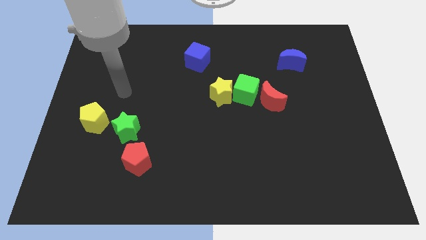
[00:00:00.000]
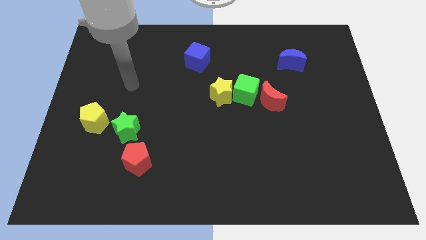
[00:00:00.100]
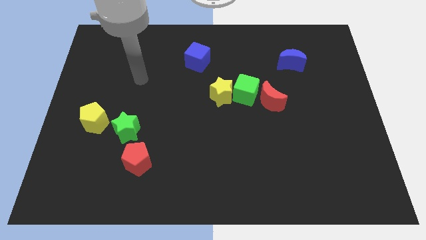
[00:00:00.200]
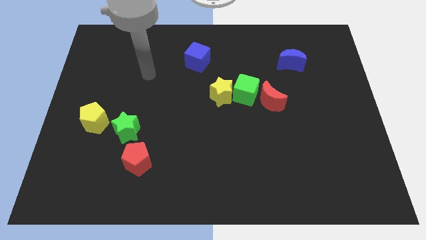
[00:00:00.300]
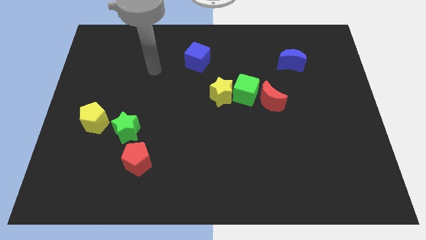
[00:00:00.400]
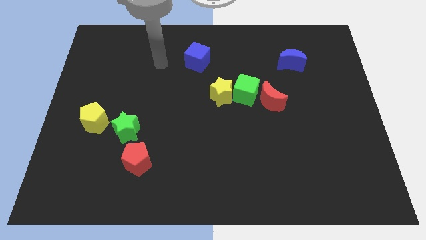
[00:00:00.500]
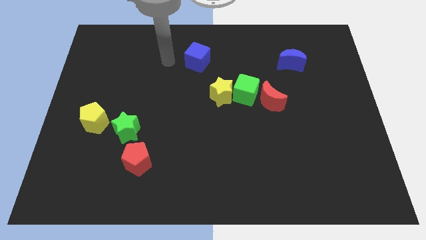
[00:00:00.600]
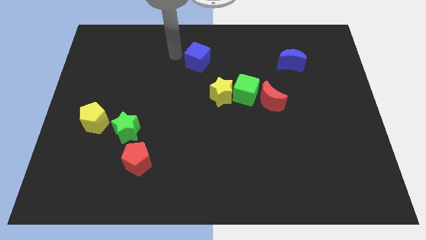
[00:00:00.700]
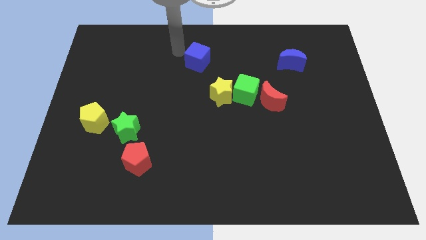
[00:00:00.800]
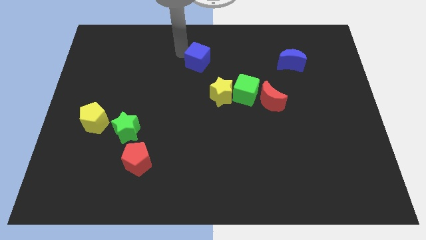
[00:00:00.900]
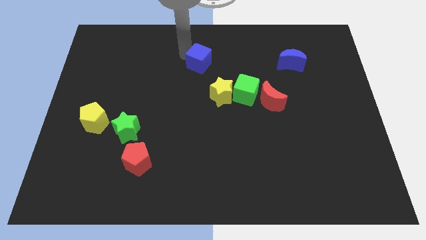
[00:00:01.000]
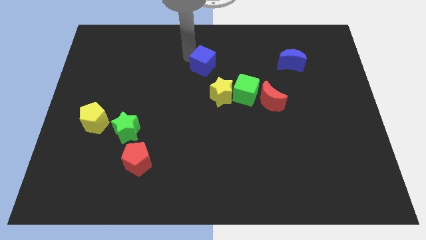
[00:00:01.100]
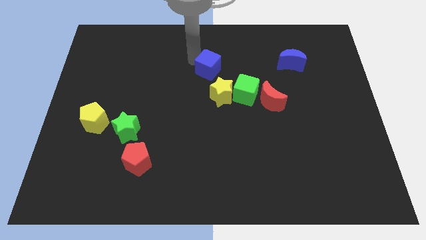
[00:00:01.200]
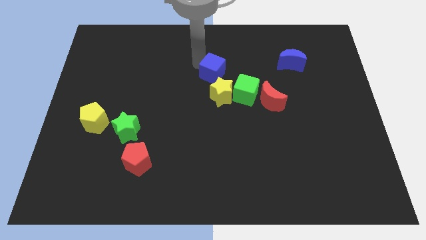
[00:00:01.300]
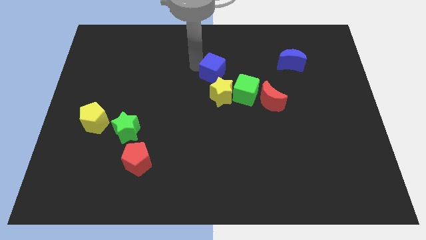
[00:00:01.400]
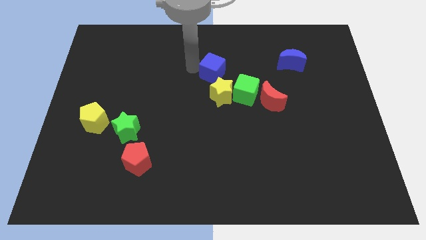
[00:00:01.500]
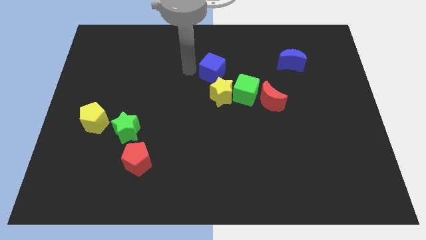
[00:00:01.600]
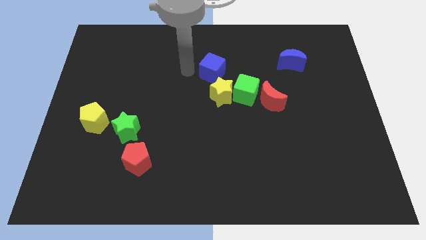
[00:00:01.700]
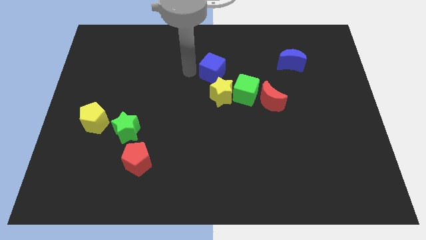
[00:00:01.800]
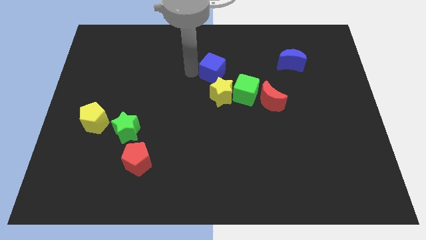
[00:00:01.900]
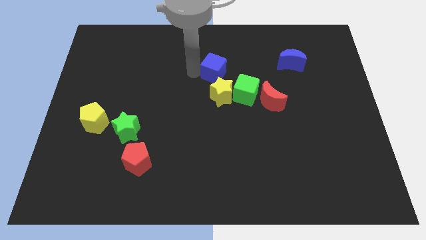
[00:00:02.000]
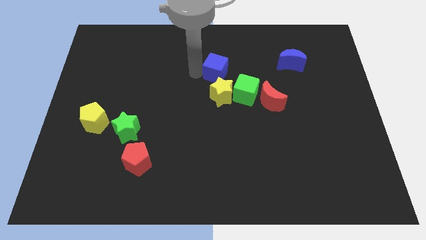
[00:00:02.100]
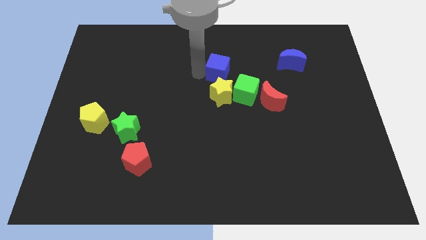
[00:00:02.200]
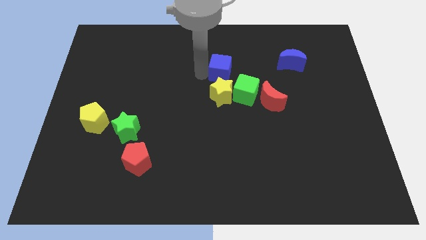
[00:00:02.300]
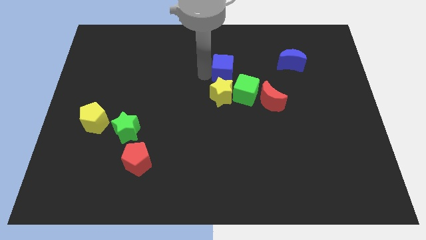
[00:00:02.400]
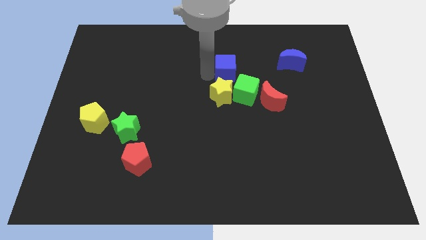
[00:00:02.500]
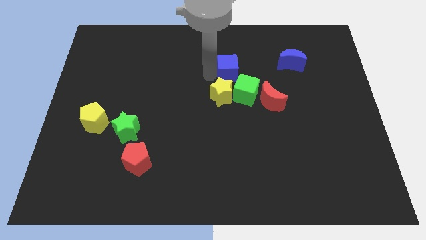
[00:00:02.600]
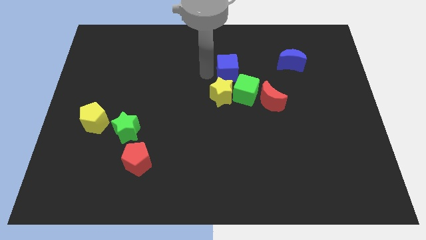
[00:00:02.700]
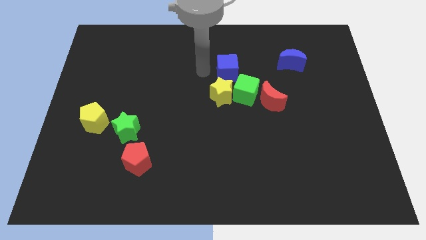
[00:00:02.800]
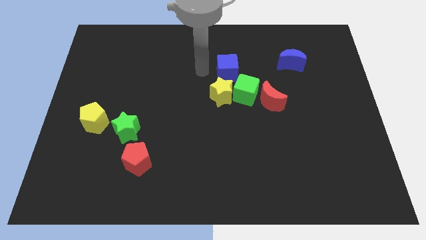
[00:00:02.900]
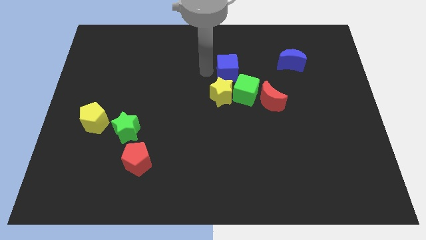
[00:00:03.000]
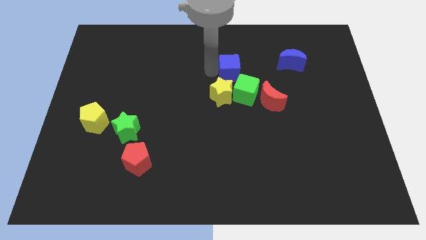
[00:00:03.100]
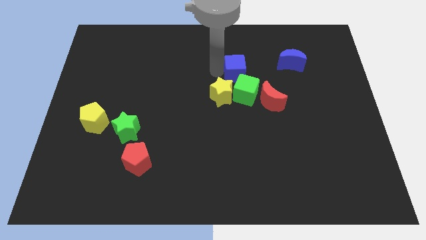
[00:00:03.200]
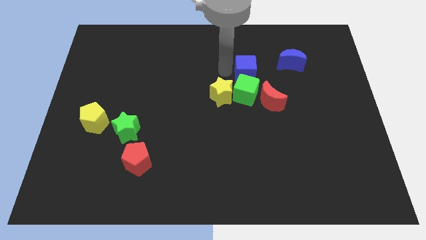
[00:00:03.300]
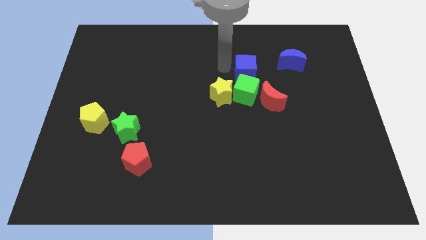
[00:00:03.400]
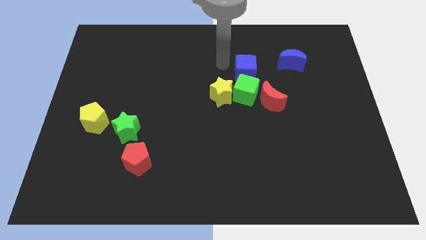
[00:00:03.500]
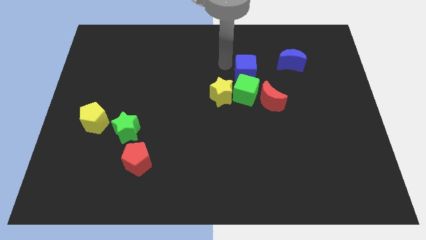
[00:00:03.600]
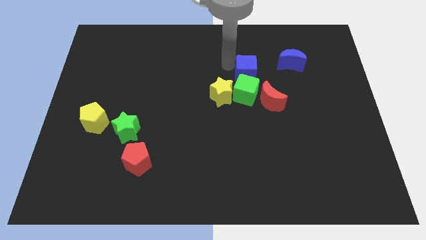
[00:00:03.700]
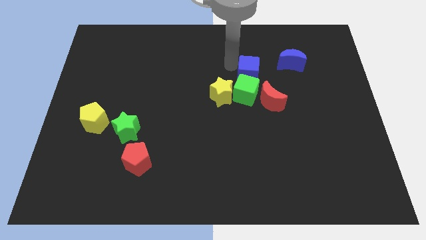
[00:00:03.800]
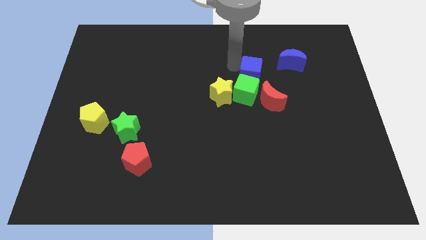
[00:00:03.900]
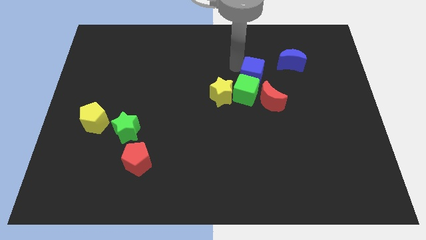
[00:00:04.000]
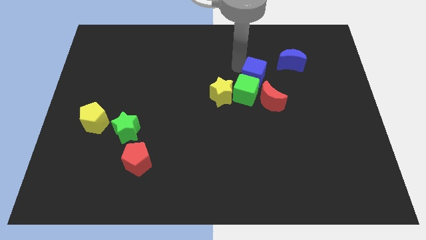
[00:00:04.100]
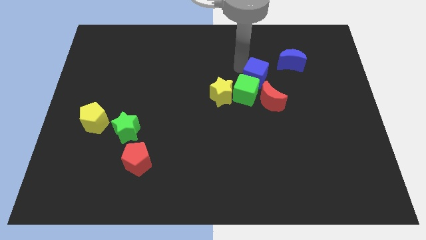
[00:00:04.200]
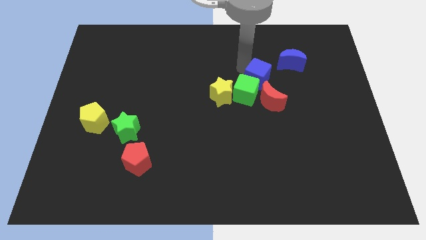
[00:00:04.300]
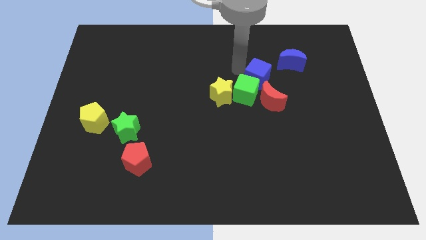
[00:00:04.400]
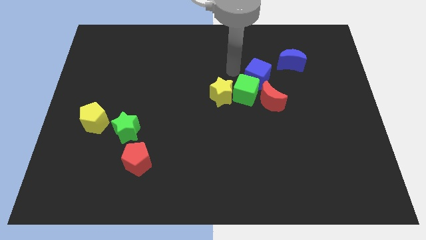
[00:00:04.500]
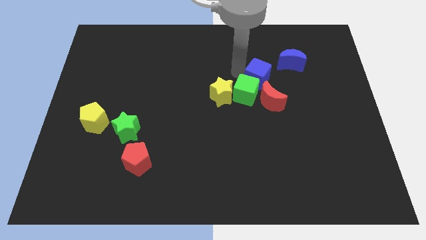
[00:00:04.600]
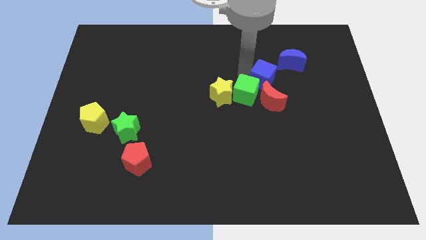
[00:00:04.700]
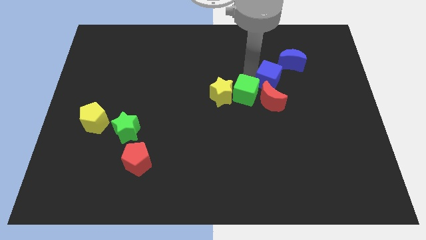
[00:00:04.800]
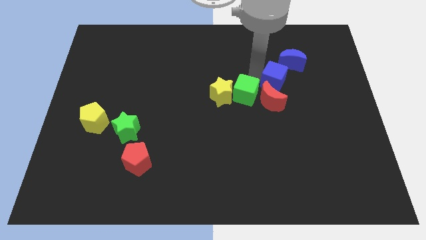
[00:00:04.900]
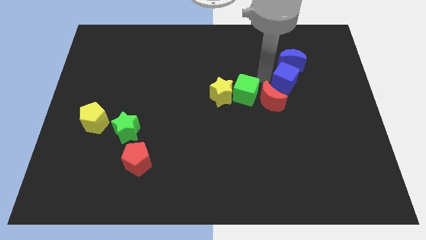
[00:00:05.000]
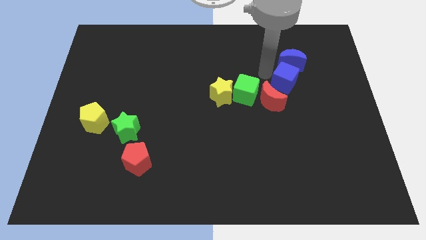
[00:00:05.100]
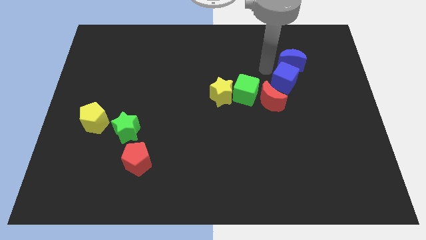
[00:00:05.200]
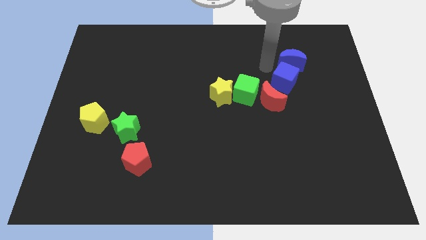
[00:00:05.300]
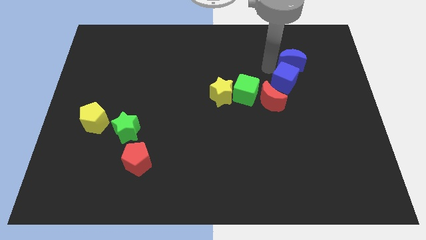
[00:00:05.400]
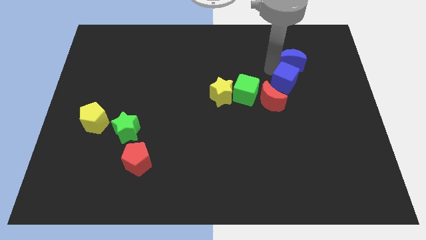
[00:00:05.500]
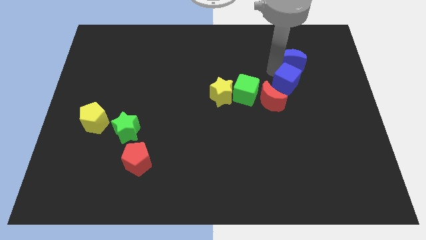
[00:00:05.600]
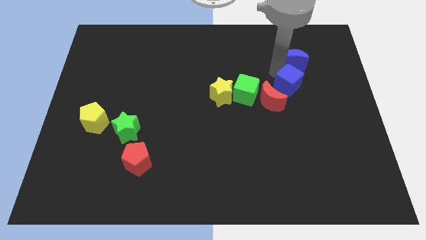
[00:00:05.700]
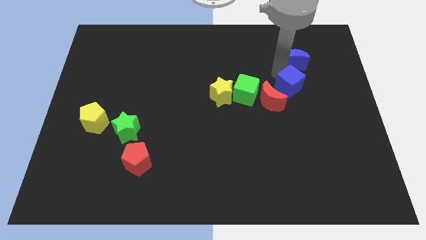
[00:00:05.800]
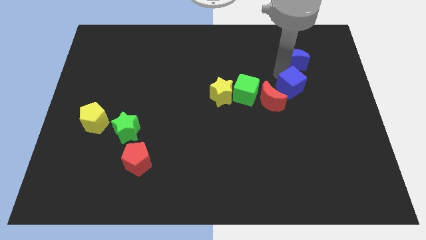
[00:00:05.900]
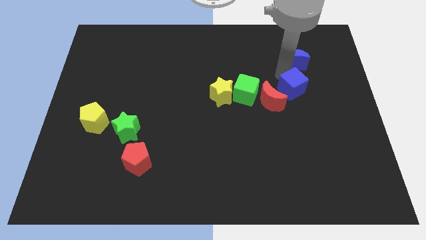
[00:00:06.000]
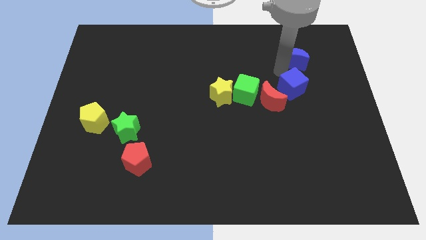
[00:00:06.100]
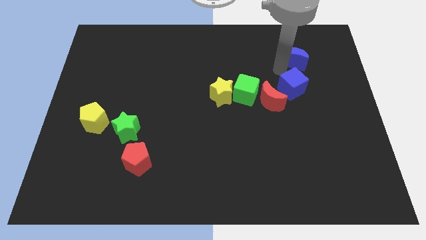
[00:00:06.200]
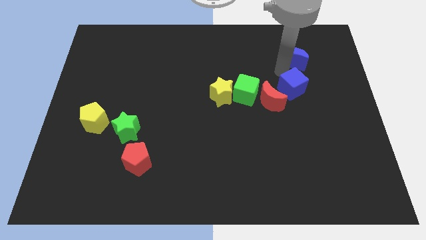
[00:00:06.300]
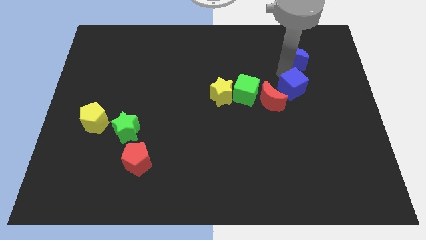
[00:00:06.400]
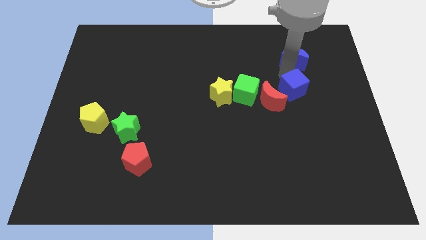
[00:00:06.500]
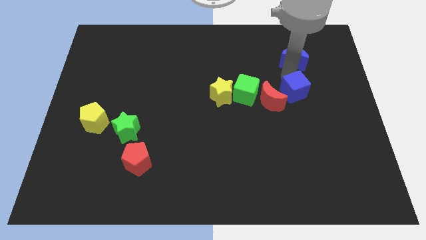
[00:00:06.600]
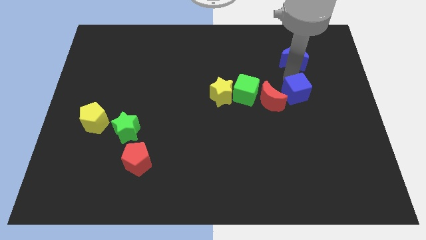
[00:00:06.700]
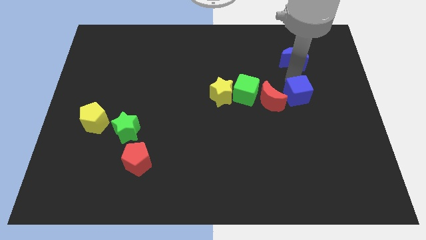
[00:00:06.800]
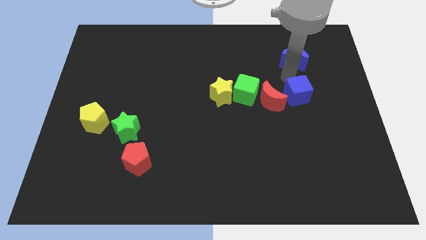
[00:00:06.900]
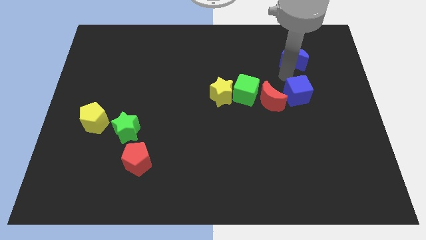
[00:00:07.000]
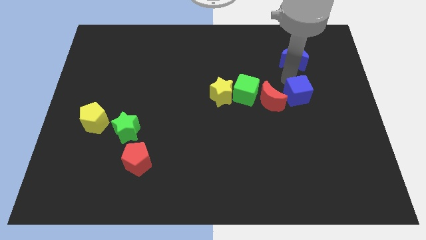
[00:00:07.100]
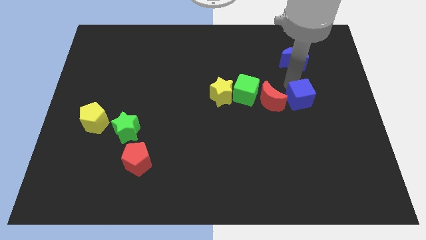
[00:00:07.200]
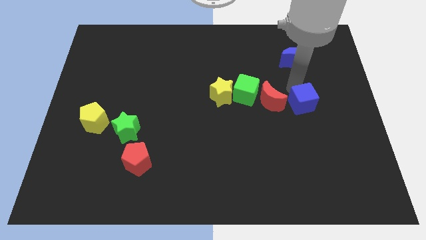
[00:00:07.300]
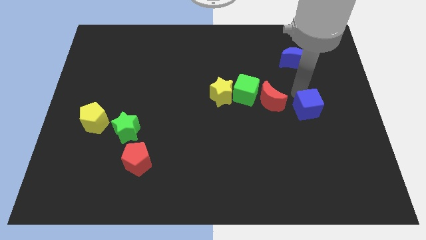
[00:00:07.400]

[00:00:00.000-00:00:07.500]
put the blue cube to the bottom right of the red moon

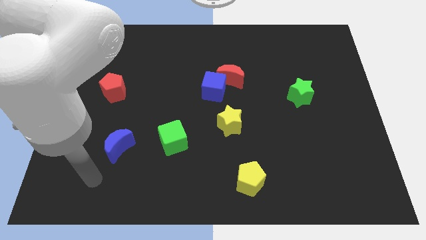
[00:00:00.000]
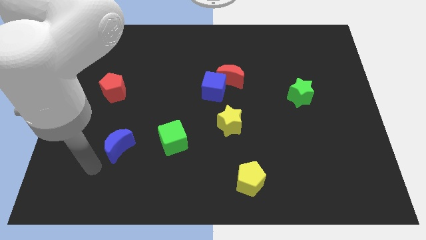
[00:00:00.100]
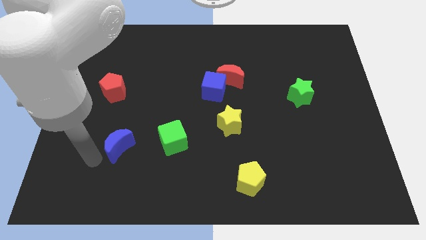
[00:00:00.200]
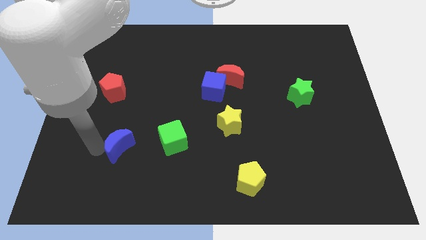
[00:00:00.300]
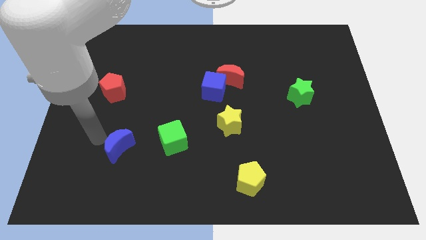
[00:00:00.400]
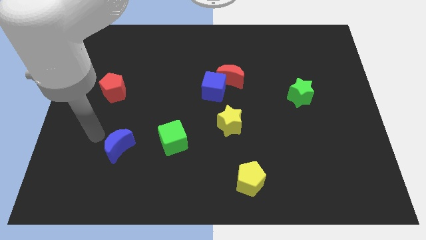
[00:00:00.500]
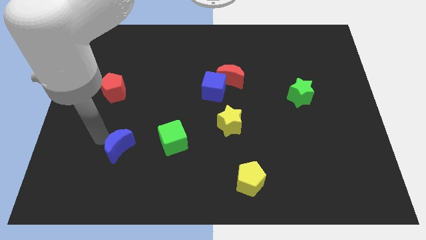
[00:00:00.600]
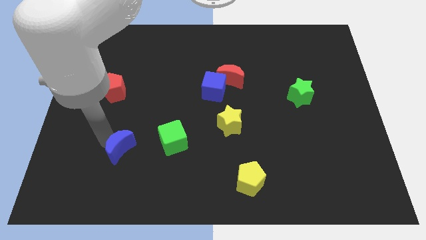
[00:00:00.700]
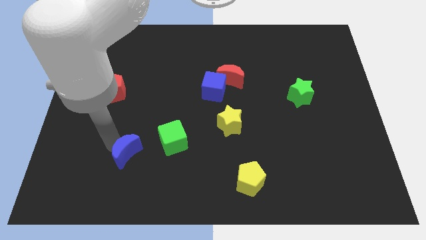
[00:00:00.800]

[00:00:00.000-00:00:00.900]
slide the blue moon to the bottom left side of the green cube
